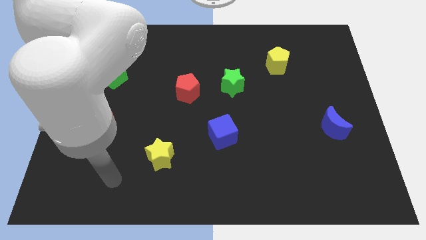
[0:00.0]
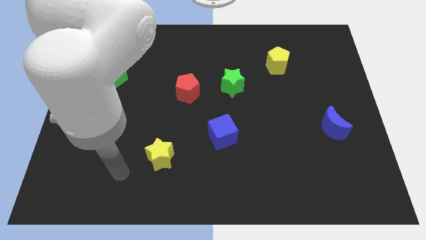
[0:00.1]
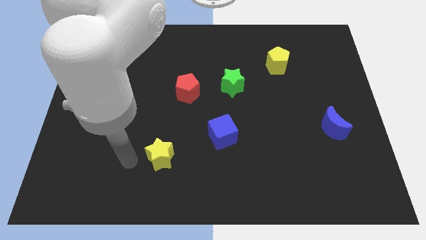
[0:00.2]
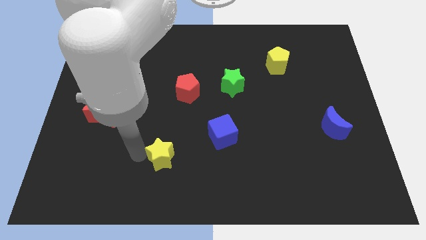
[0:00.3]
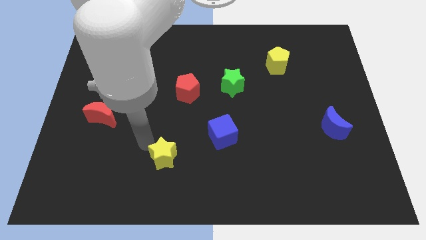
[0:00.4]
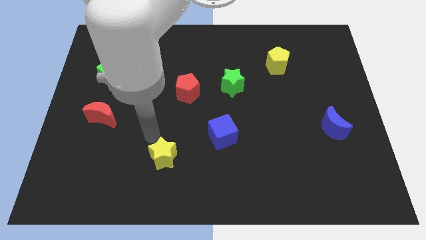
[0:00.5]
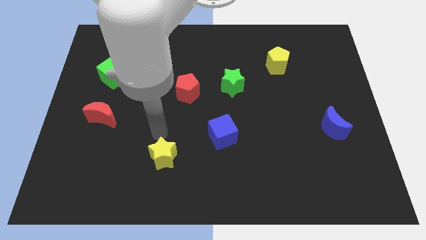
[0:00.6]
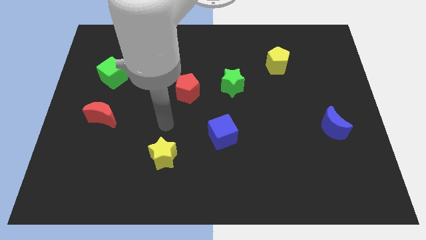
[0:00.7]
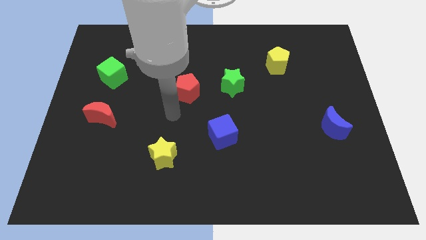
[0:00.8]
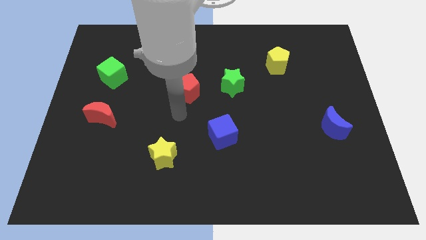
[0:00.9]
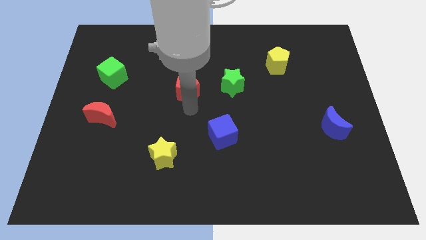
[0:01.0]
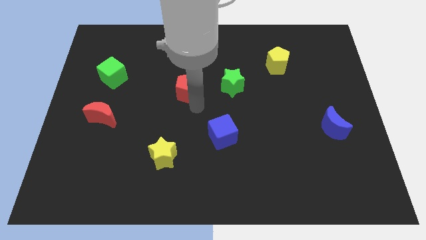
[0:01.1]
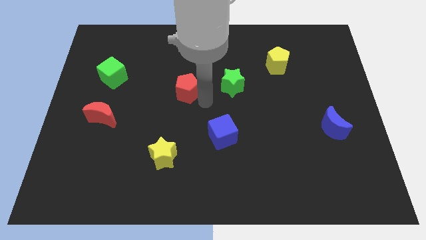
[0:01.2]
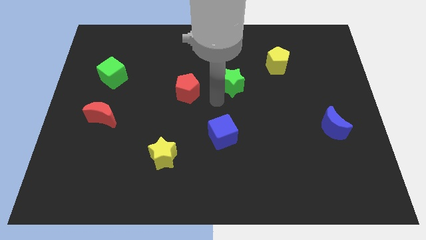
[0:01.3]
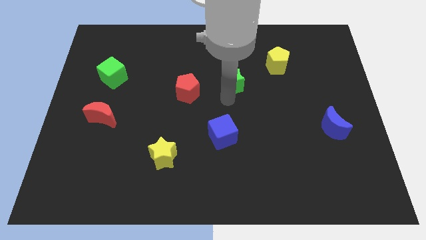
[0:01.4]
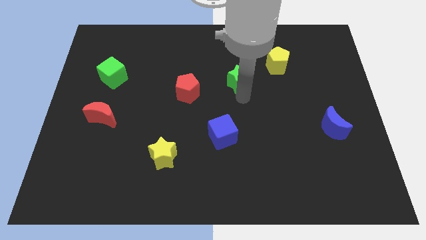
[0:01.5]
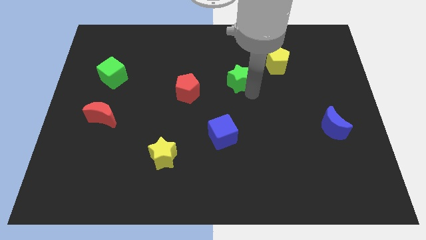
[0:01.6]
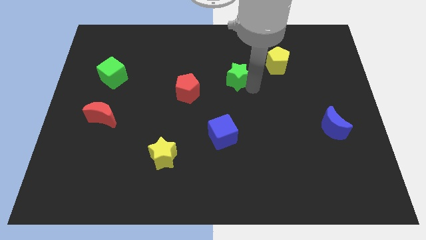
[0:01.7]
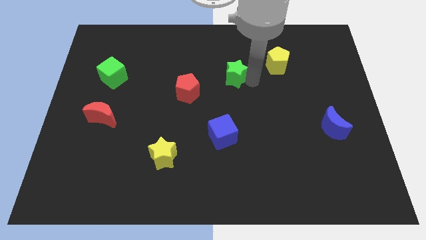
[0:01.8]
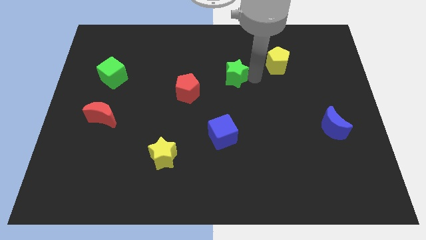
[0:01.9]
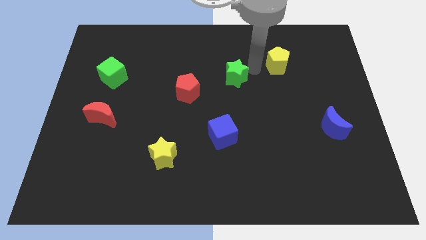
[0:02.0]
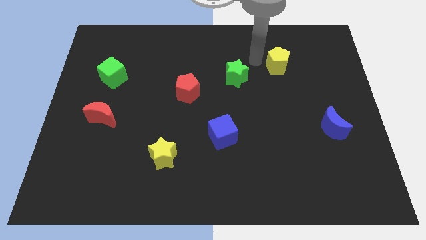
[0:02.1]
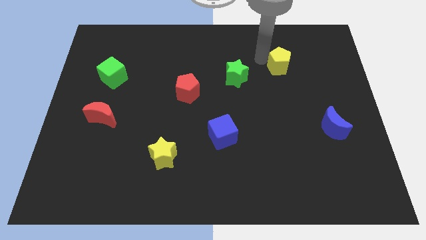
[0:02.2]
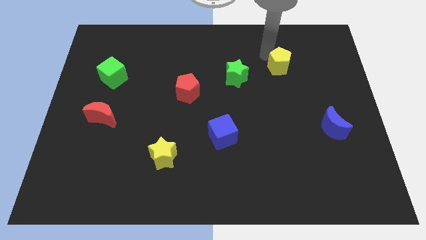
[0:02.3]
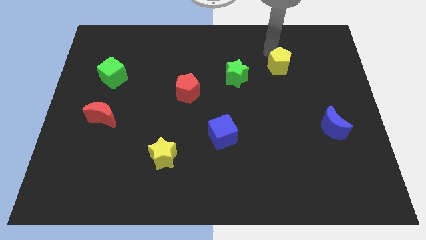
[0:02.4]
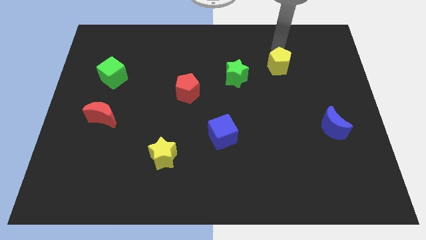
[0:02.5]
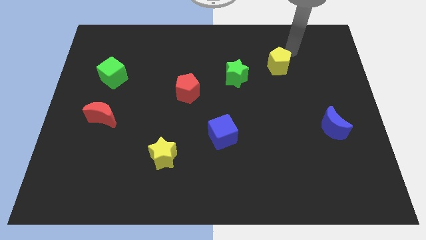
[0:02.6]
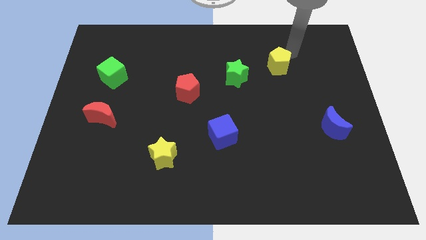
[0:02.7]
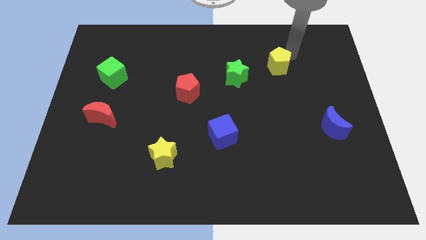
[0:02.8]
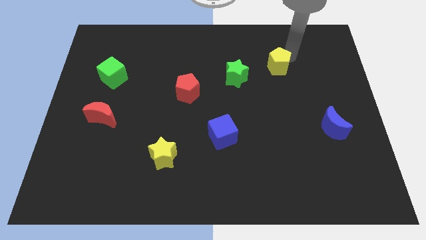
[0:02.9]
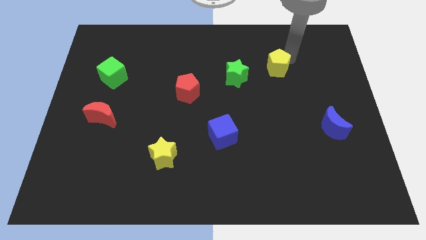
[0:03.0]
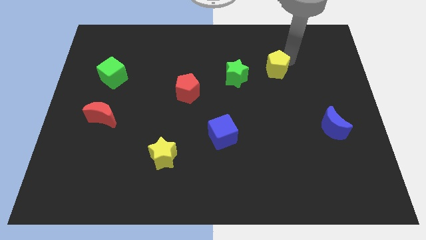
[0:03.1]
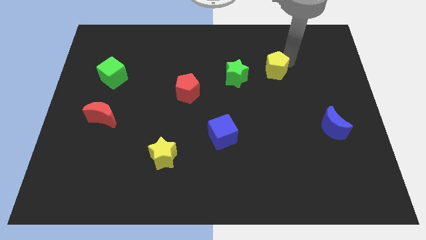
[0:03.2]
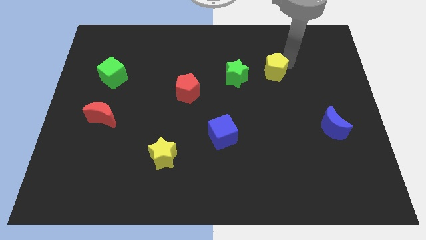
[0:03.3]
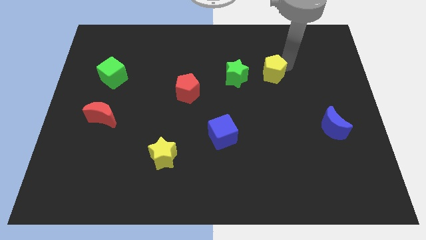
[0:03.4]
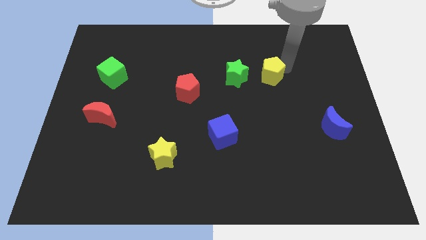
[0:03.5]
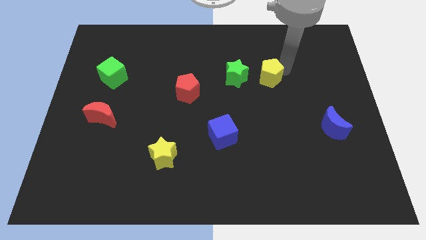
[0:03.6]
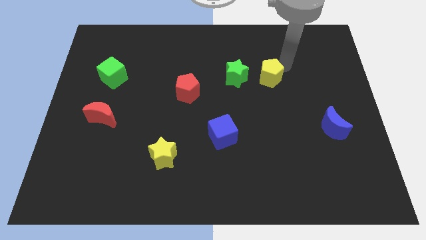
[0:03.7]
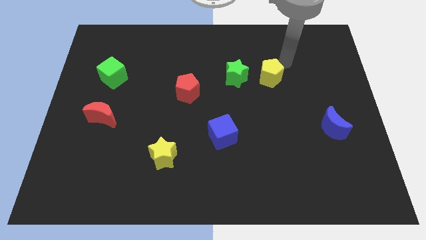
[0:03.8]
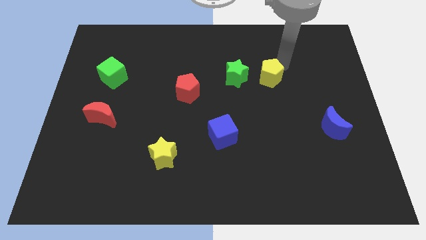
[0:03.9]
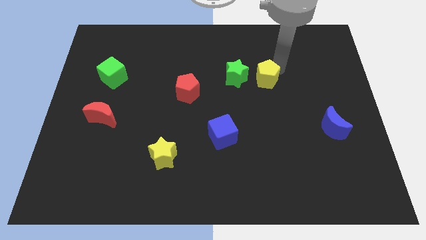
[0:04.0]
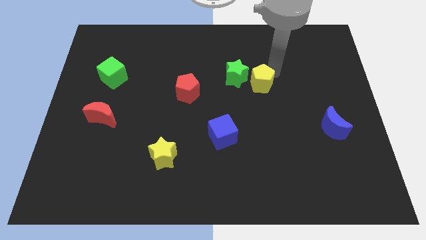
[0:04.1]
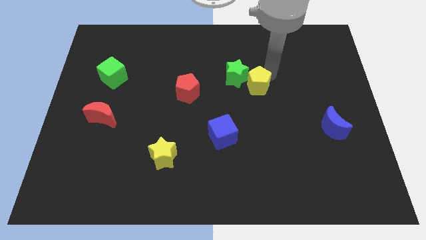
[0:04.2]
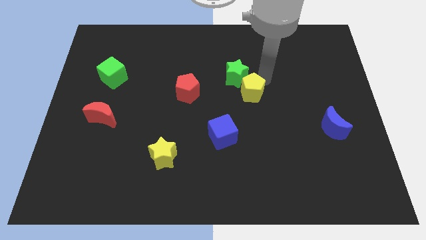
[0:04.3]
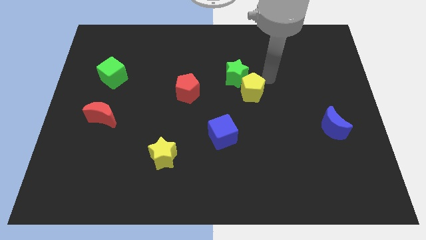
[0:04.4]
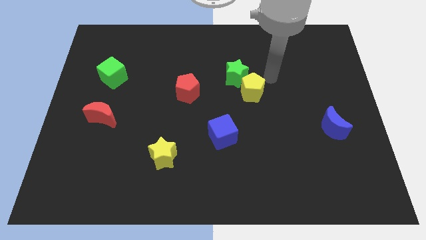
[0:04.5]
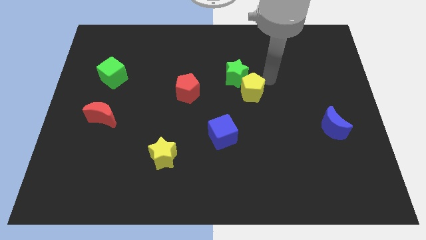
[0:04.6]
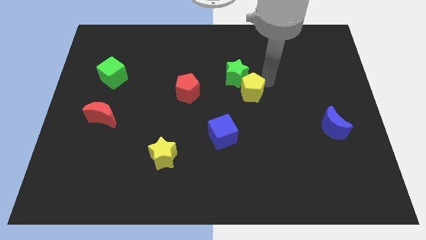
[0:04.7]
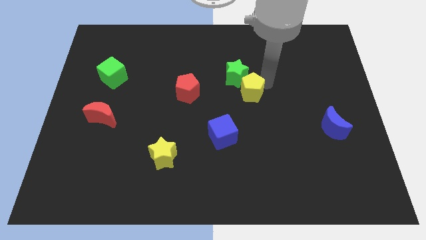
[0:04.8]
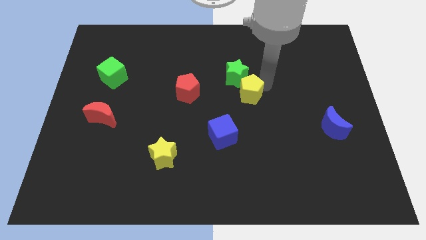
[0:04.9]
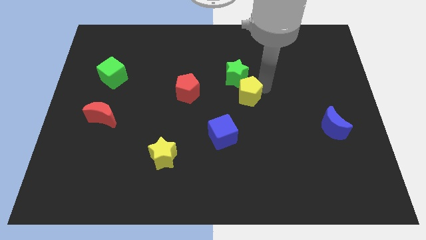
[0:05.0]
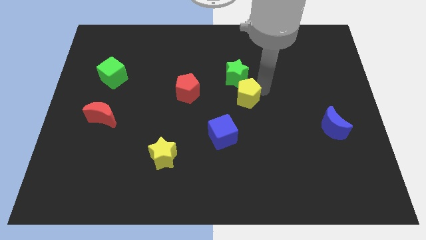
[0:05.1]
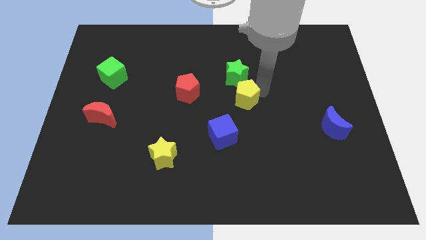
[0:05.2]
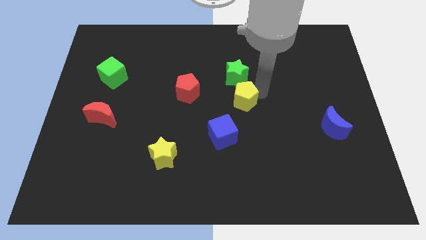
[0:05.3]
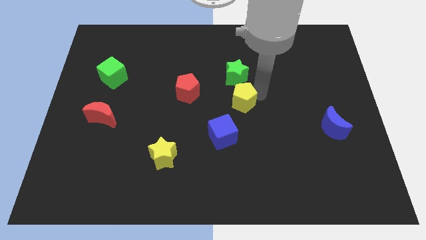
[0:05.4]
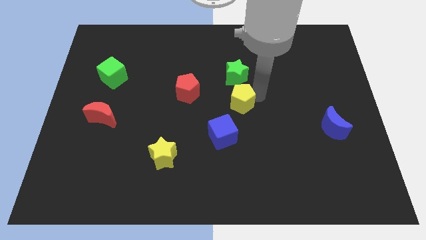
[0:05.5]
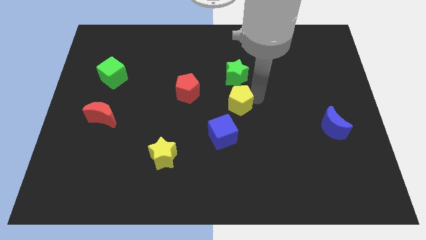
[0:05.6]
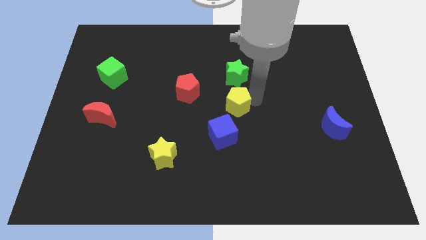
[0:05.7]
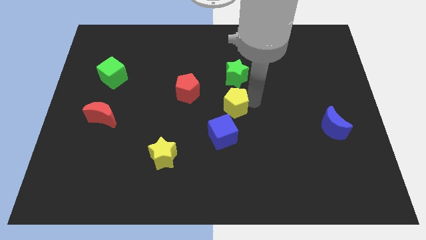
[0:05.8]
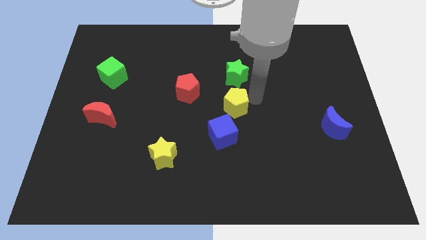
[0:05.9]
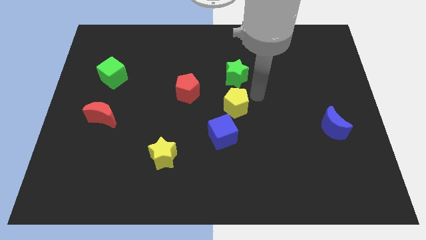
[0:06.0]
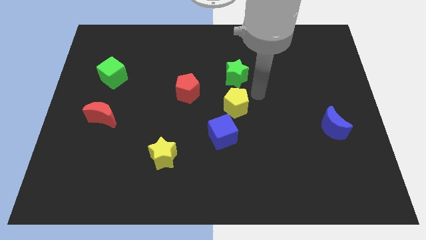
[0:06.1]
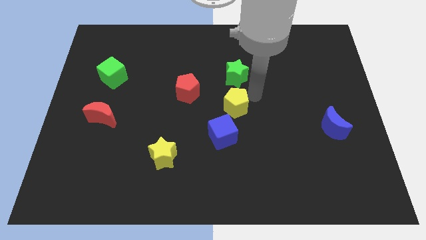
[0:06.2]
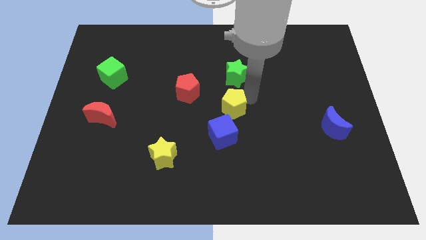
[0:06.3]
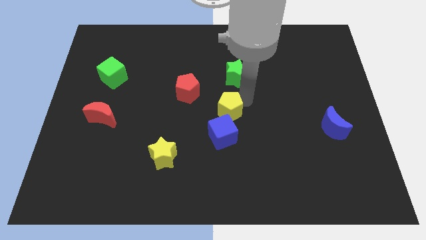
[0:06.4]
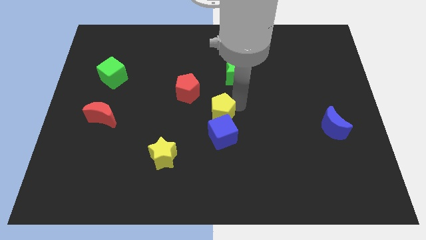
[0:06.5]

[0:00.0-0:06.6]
slide the yellow pentagon down and to the left

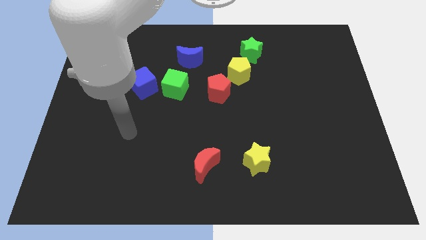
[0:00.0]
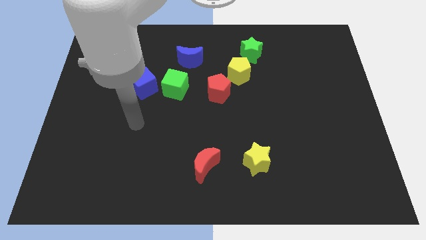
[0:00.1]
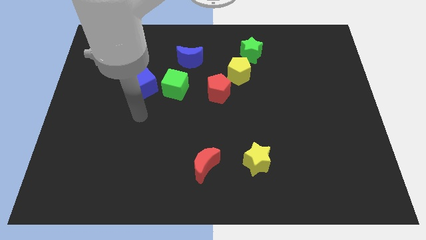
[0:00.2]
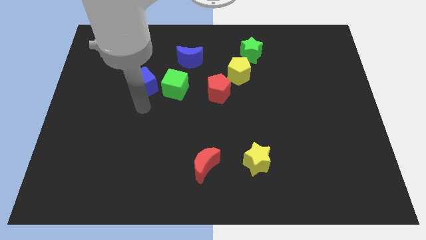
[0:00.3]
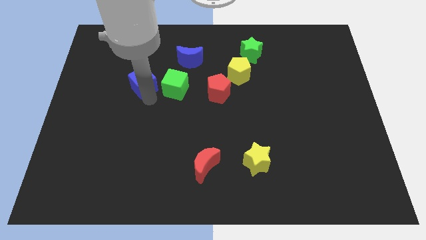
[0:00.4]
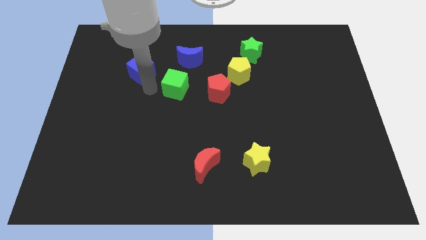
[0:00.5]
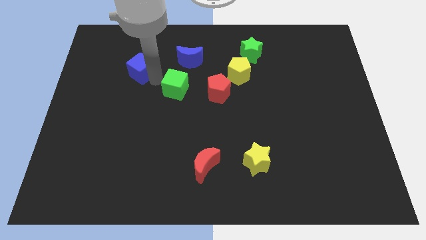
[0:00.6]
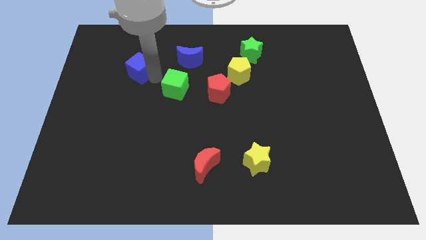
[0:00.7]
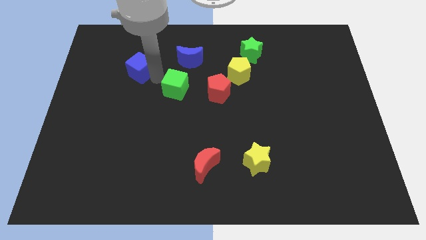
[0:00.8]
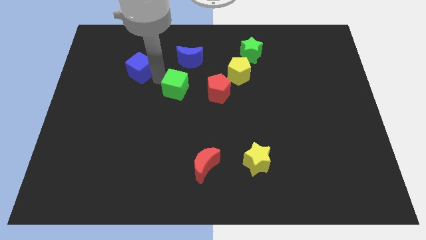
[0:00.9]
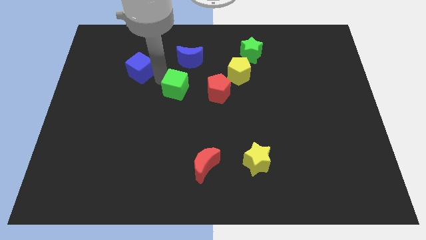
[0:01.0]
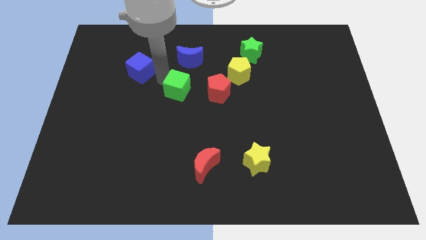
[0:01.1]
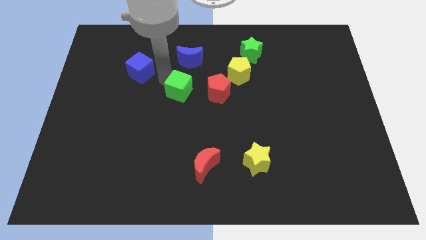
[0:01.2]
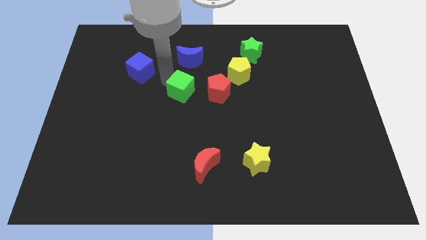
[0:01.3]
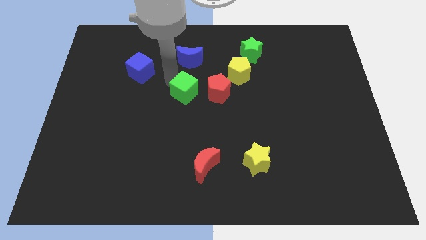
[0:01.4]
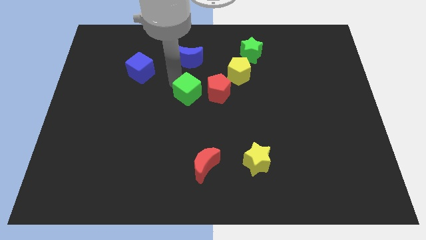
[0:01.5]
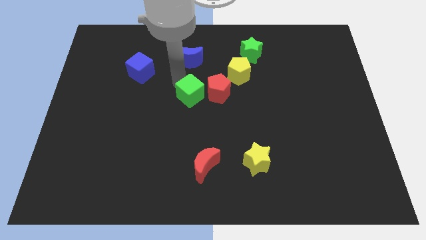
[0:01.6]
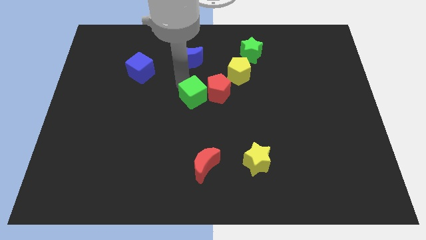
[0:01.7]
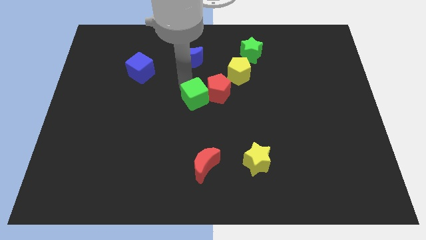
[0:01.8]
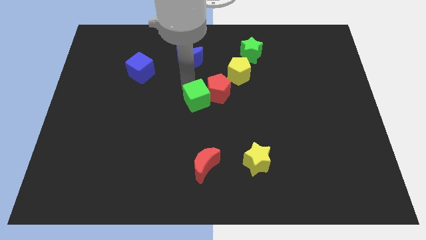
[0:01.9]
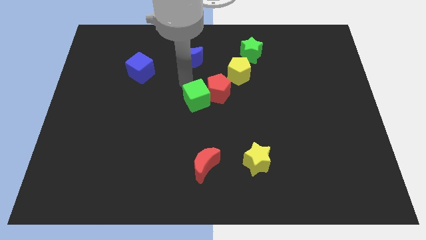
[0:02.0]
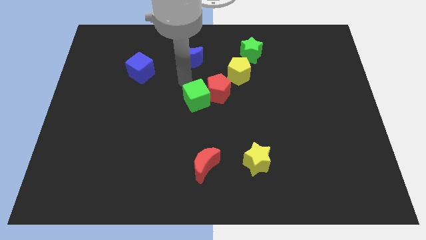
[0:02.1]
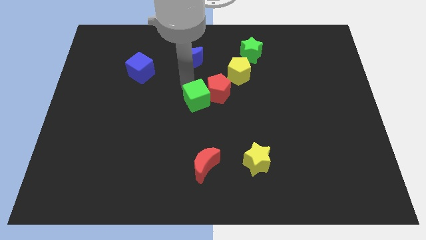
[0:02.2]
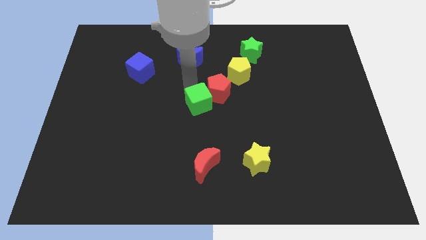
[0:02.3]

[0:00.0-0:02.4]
slide the green cube a little down and then right
